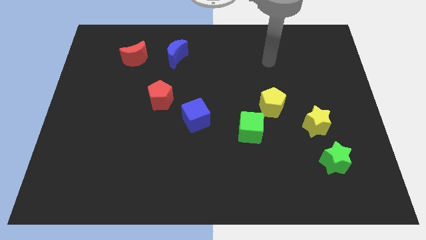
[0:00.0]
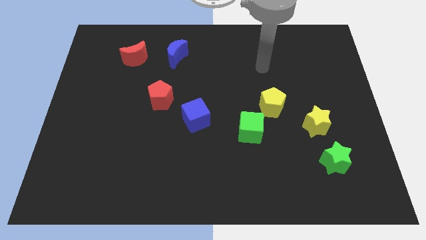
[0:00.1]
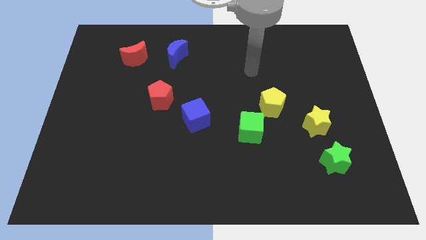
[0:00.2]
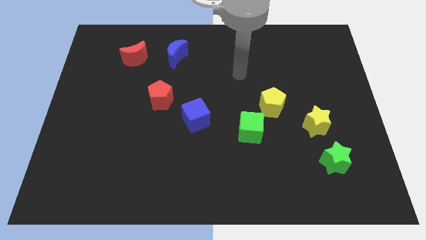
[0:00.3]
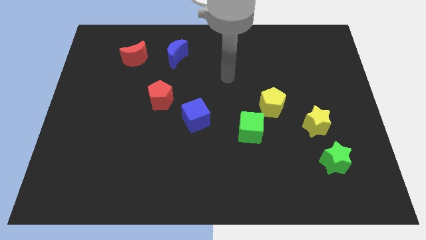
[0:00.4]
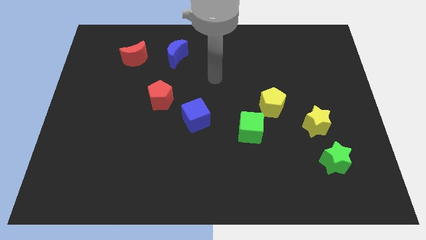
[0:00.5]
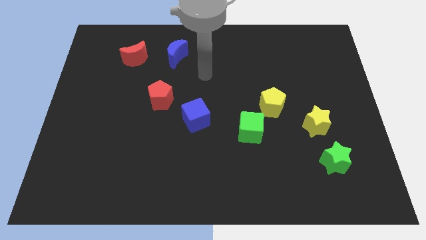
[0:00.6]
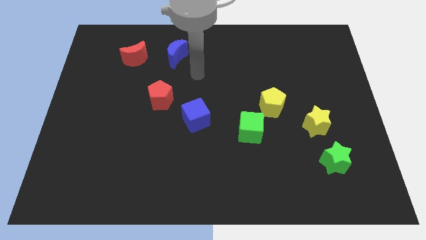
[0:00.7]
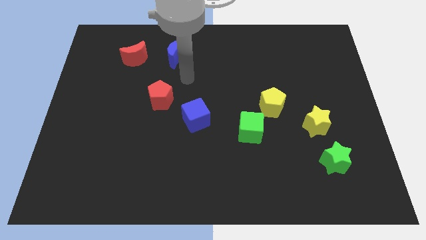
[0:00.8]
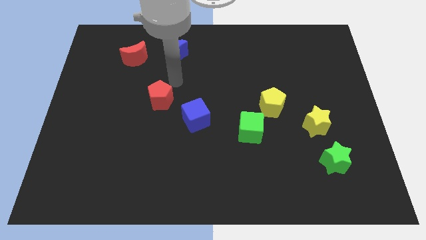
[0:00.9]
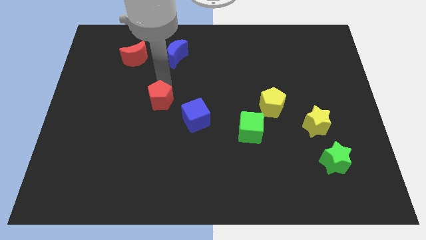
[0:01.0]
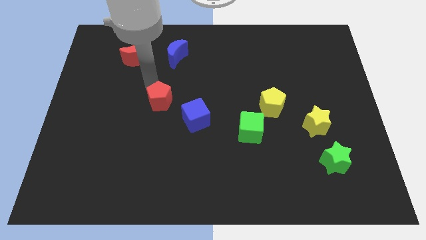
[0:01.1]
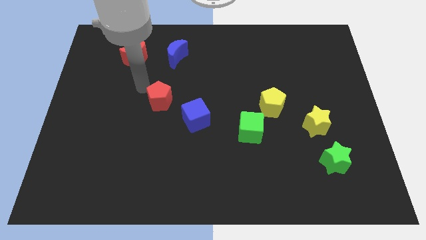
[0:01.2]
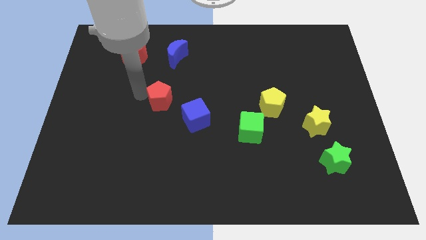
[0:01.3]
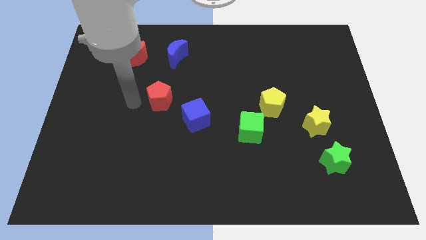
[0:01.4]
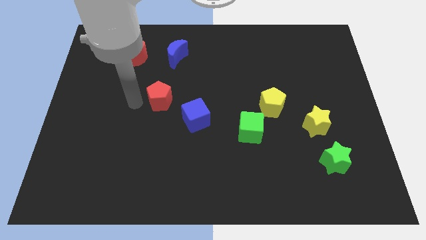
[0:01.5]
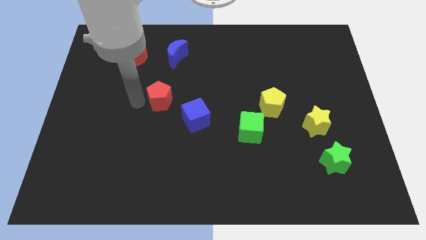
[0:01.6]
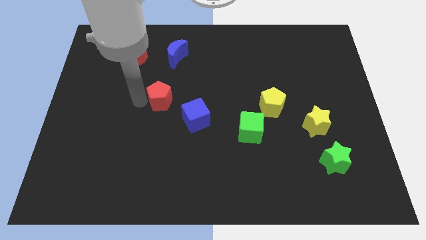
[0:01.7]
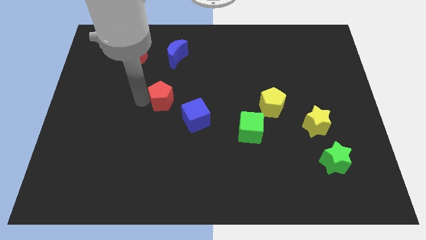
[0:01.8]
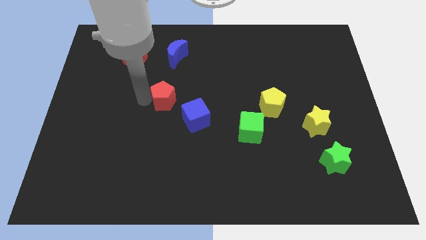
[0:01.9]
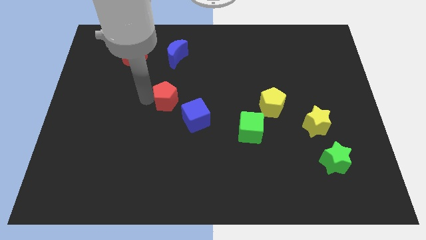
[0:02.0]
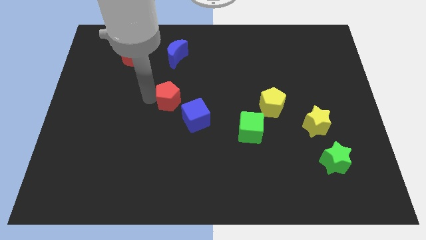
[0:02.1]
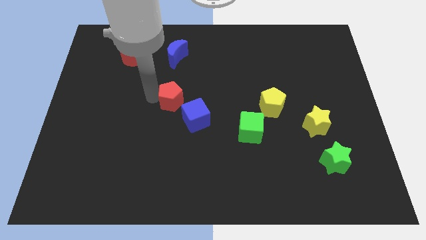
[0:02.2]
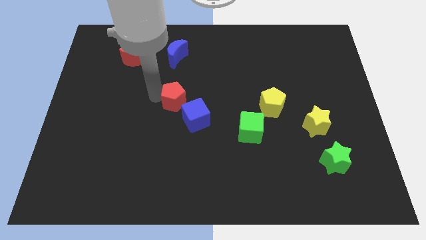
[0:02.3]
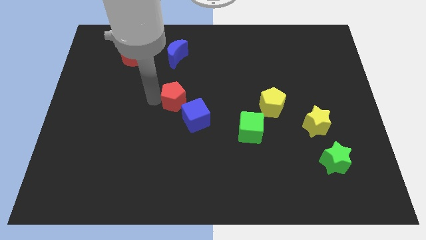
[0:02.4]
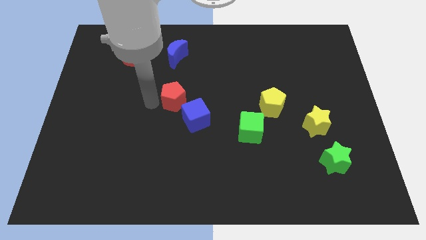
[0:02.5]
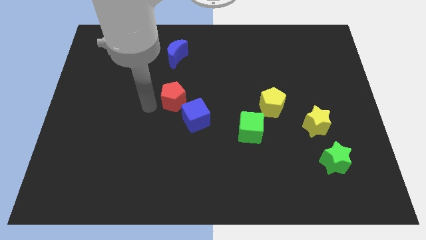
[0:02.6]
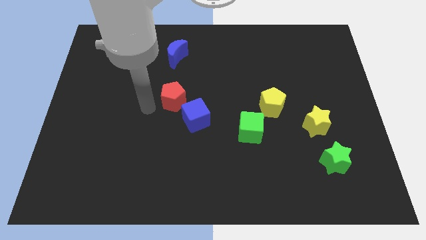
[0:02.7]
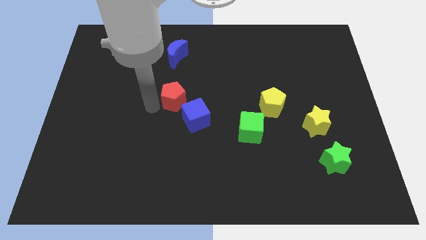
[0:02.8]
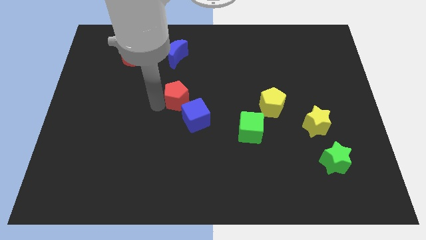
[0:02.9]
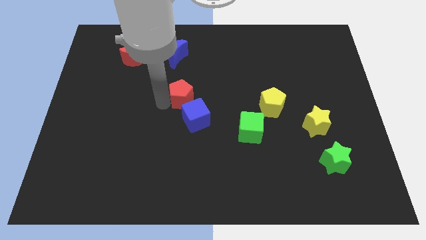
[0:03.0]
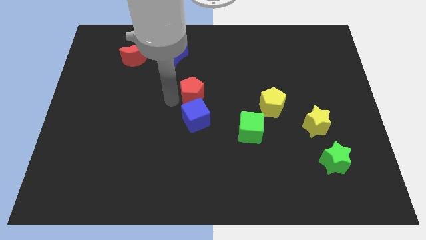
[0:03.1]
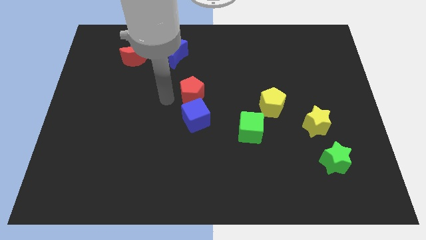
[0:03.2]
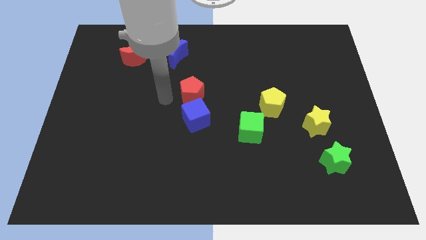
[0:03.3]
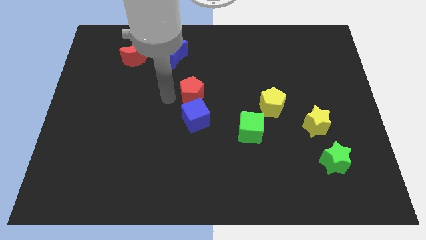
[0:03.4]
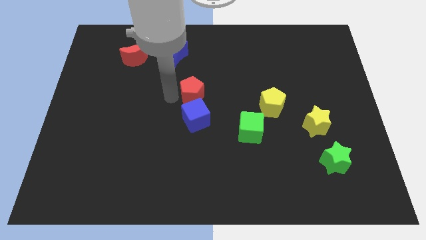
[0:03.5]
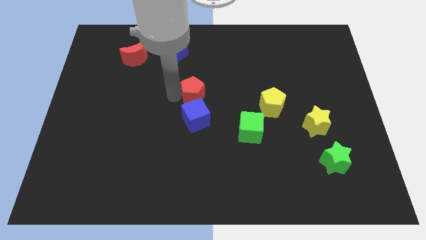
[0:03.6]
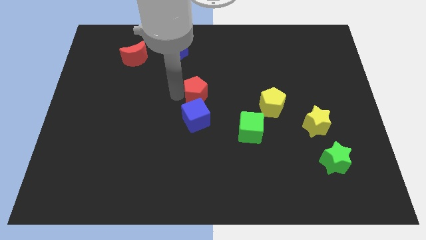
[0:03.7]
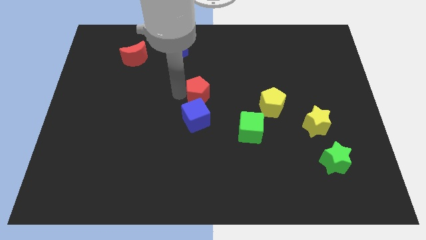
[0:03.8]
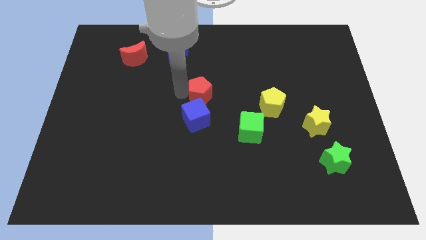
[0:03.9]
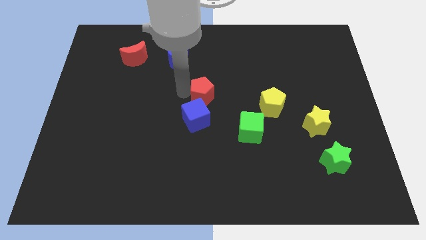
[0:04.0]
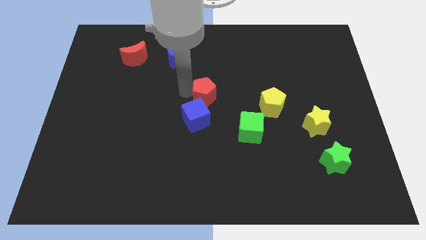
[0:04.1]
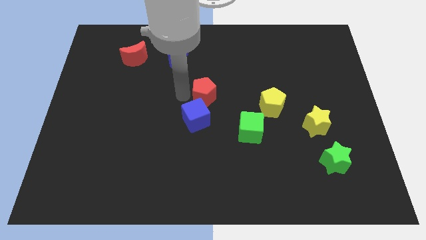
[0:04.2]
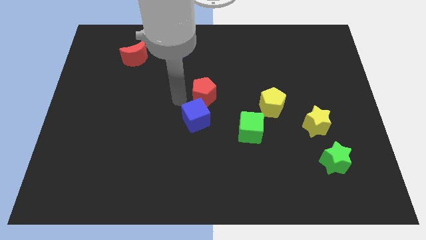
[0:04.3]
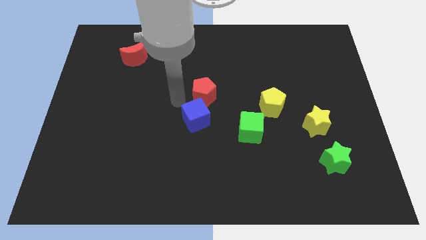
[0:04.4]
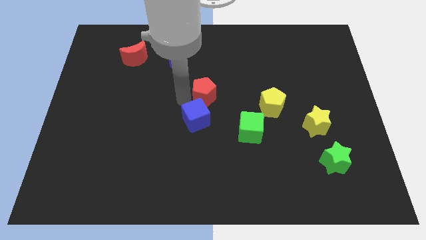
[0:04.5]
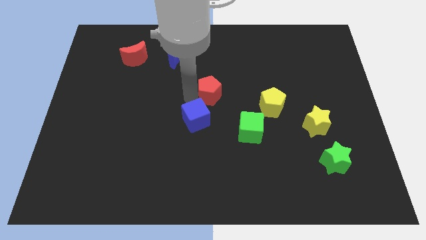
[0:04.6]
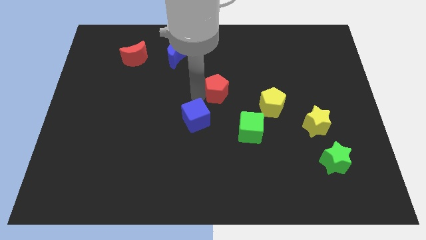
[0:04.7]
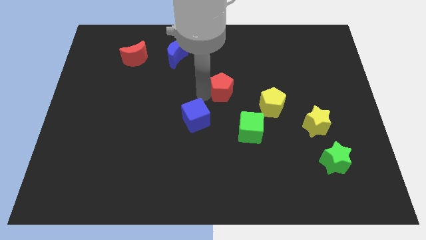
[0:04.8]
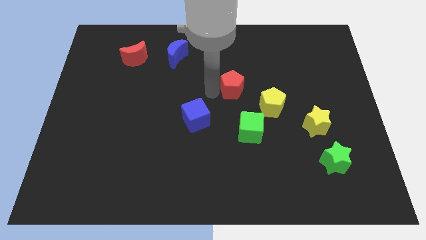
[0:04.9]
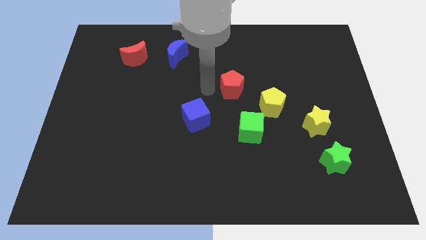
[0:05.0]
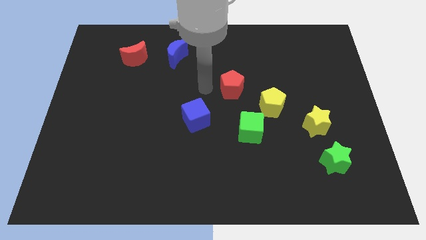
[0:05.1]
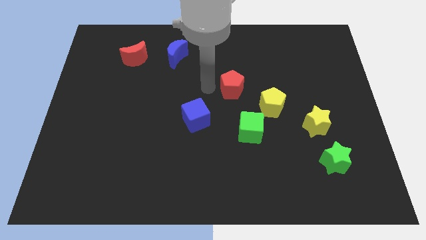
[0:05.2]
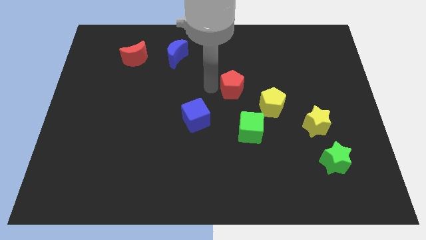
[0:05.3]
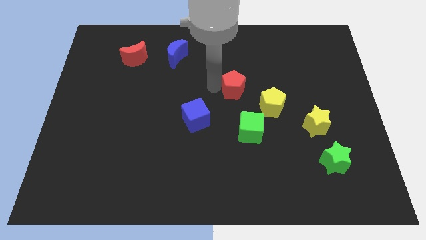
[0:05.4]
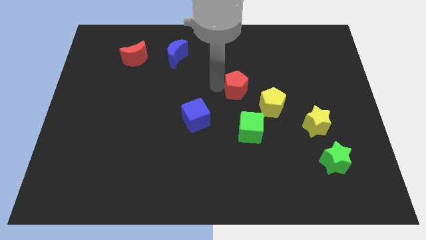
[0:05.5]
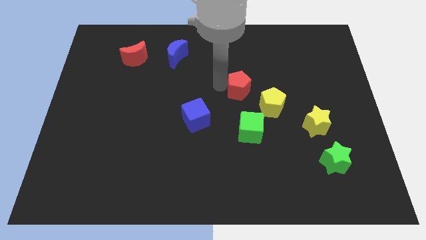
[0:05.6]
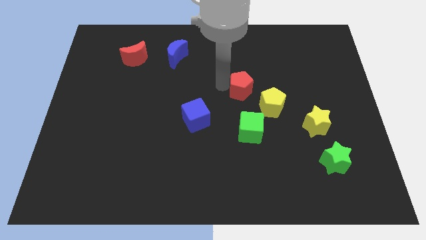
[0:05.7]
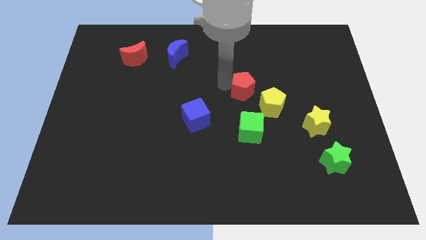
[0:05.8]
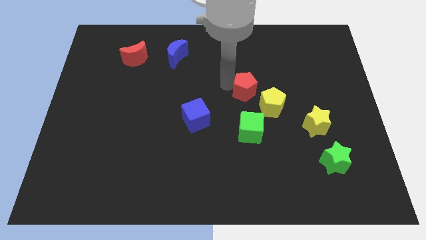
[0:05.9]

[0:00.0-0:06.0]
move the red pentagon to the right

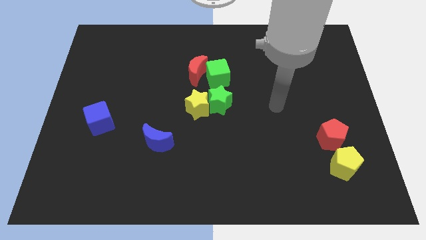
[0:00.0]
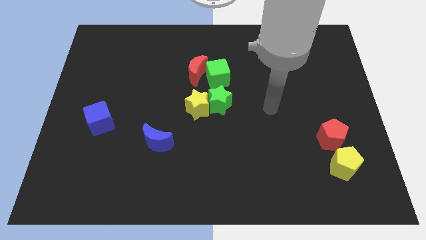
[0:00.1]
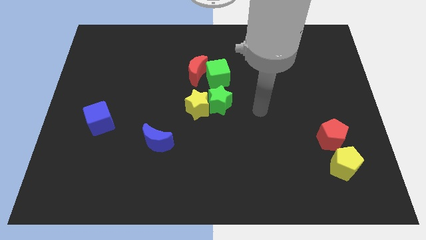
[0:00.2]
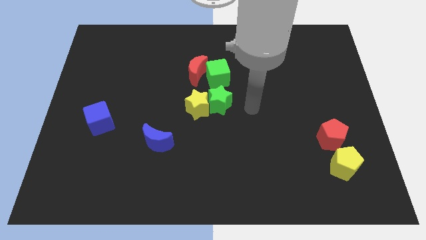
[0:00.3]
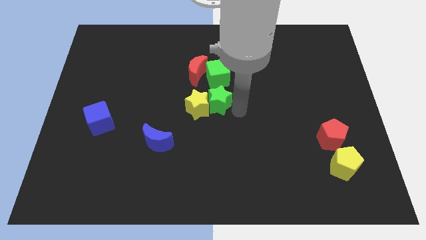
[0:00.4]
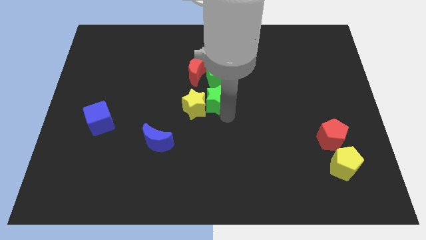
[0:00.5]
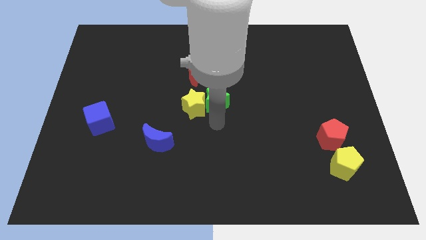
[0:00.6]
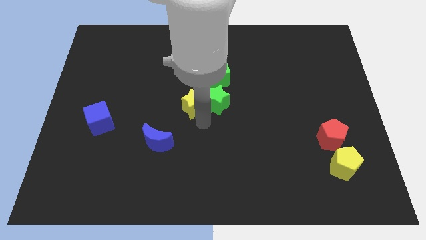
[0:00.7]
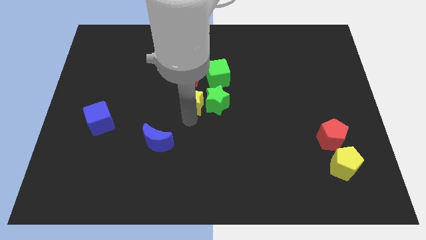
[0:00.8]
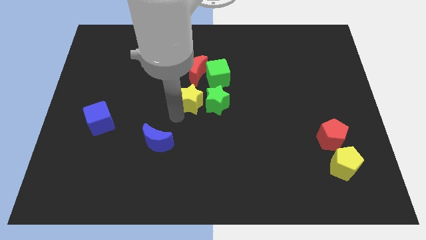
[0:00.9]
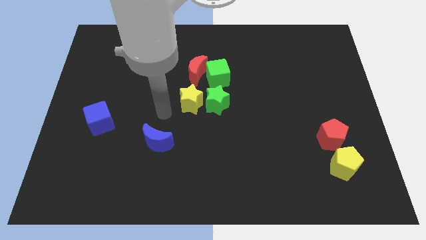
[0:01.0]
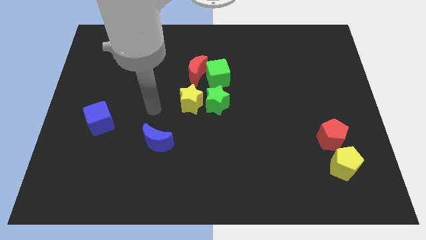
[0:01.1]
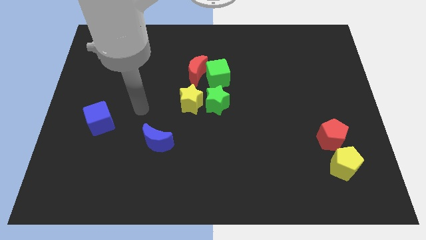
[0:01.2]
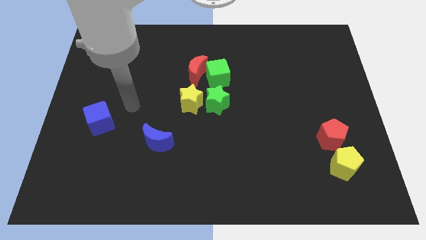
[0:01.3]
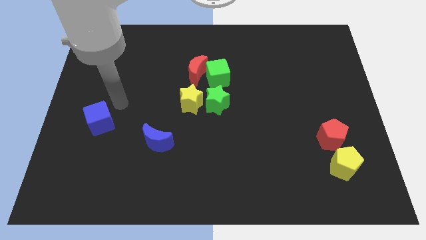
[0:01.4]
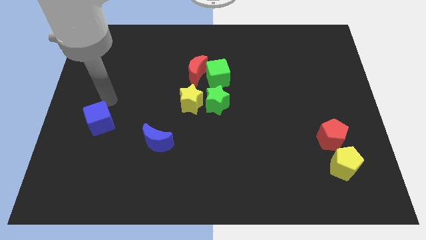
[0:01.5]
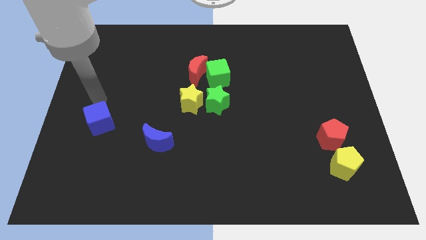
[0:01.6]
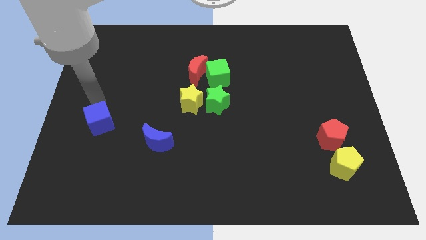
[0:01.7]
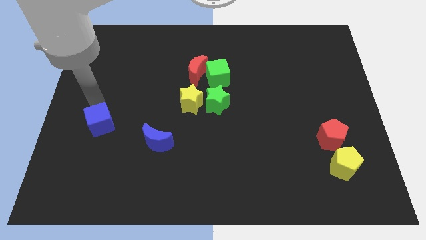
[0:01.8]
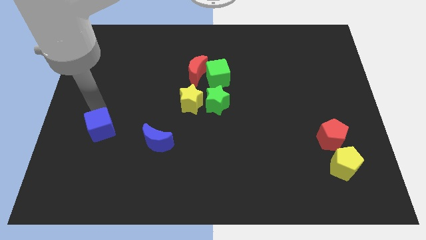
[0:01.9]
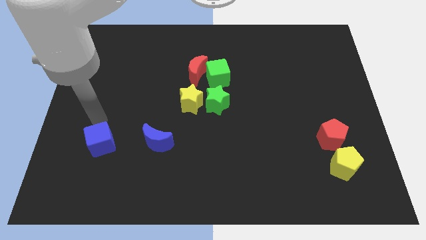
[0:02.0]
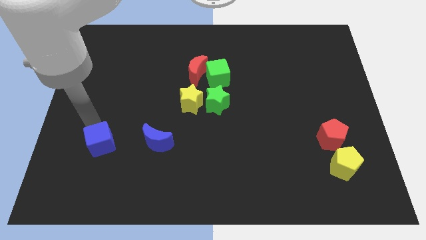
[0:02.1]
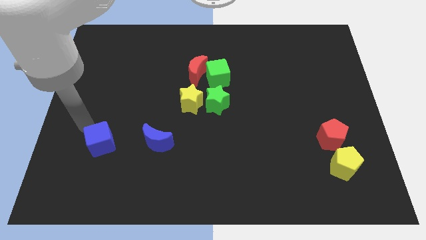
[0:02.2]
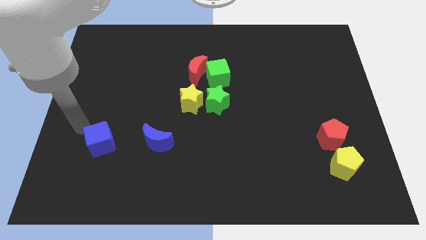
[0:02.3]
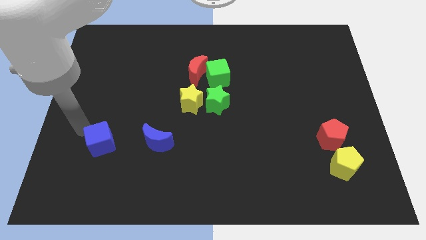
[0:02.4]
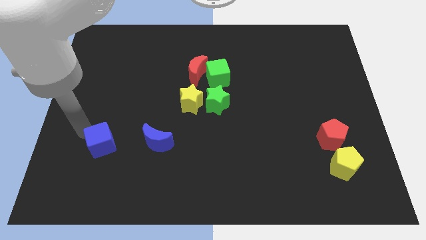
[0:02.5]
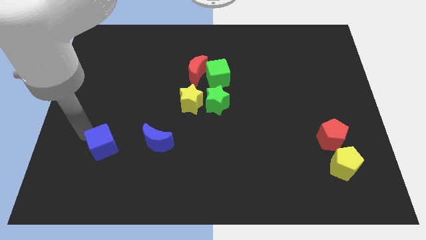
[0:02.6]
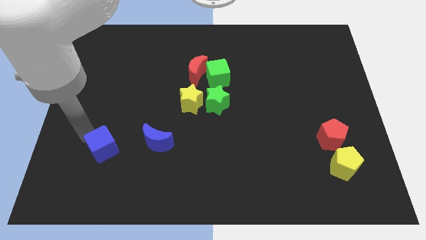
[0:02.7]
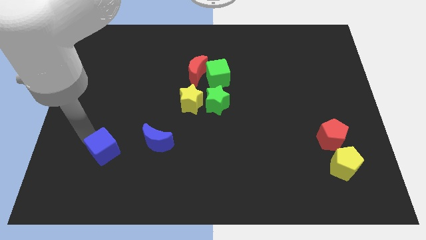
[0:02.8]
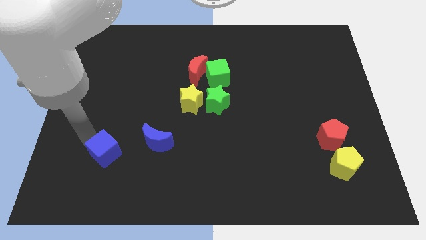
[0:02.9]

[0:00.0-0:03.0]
push the blue cube diagonally downwards and to the right somewhat
